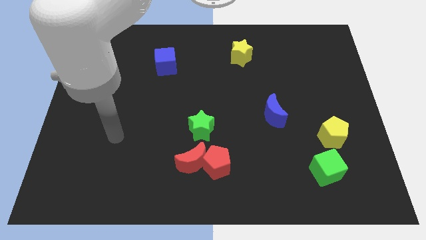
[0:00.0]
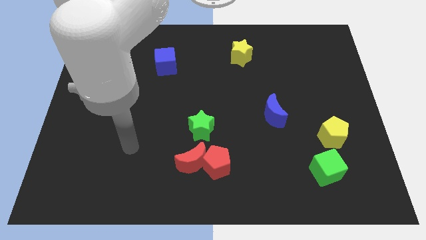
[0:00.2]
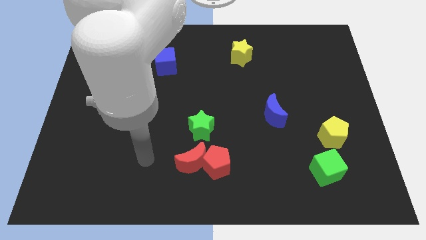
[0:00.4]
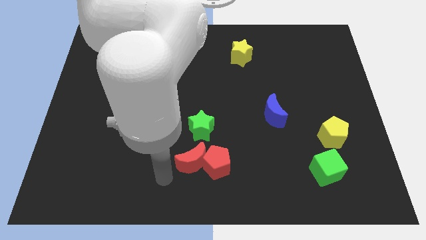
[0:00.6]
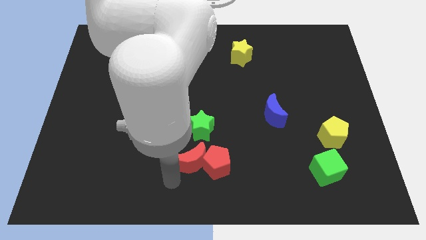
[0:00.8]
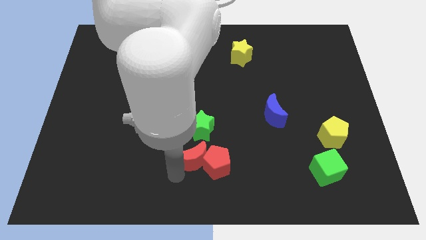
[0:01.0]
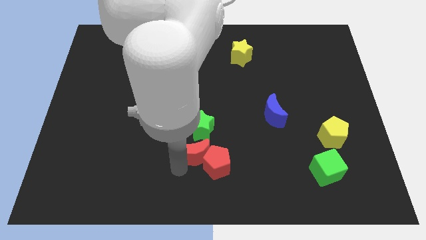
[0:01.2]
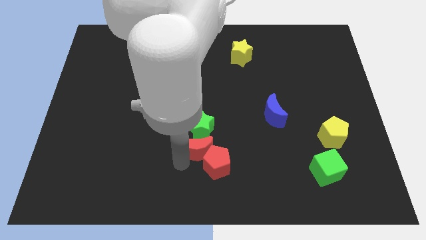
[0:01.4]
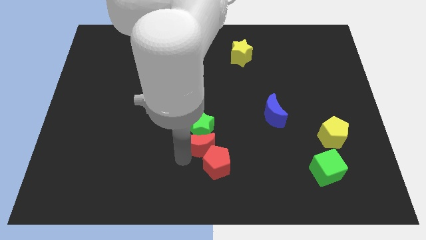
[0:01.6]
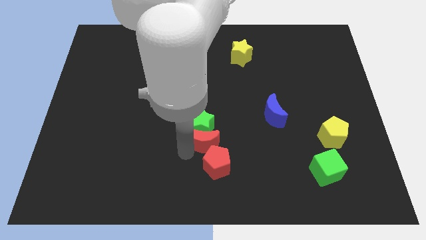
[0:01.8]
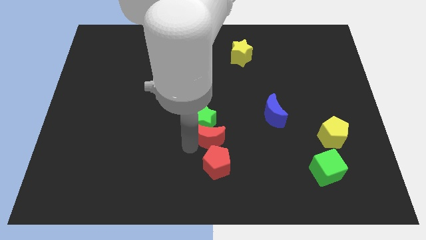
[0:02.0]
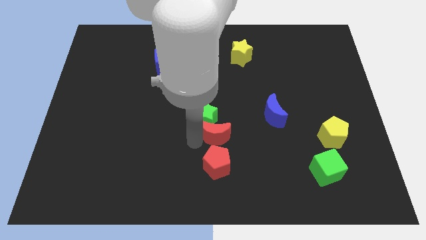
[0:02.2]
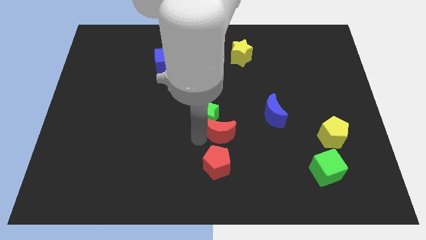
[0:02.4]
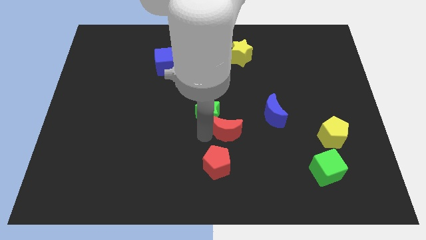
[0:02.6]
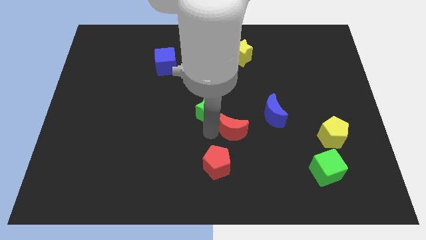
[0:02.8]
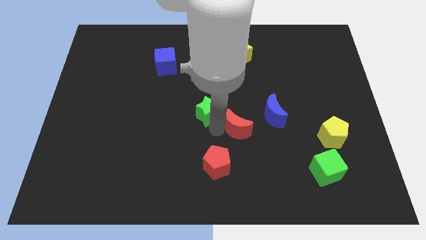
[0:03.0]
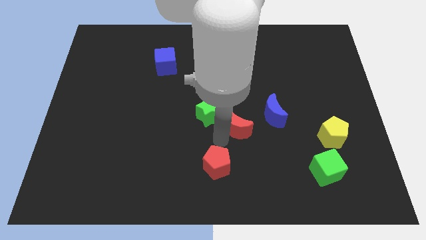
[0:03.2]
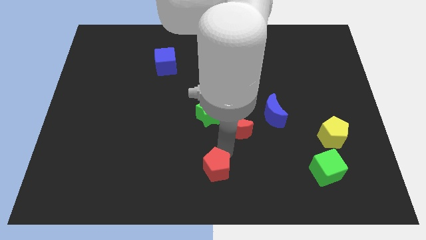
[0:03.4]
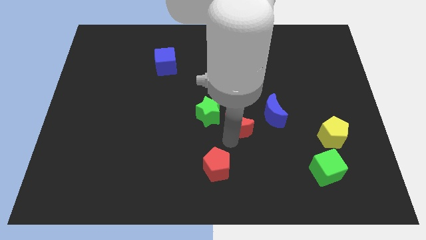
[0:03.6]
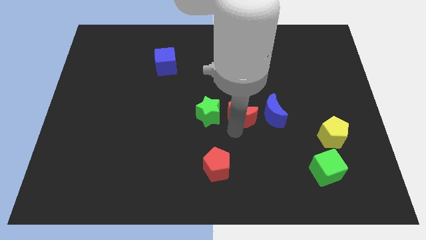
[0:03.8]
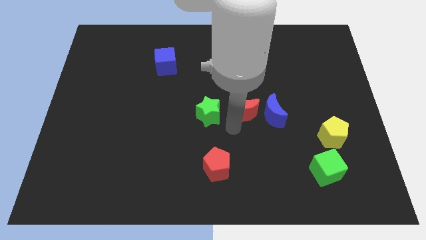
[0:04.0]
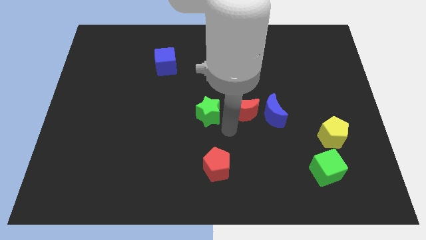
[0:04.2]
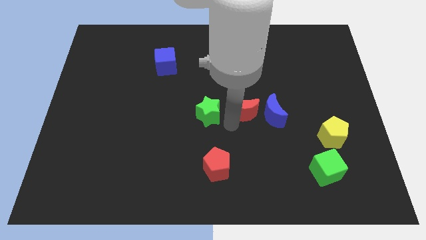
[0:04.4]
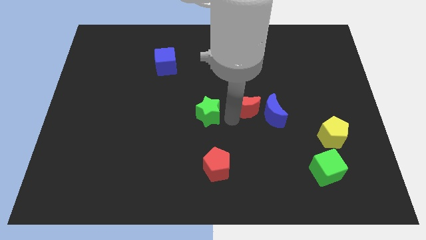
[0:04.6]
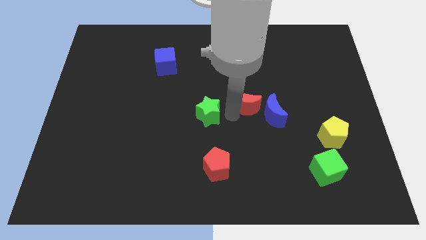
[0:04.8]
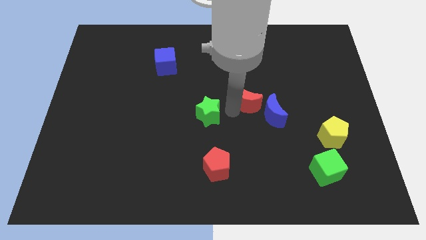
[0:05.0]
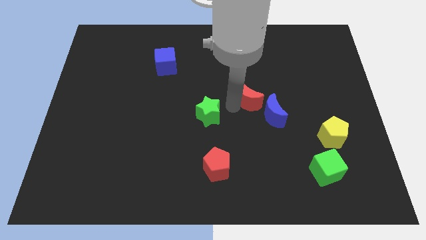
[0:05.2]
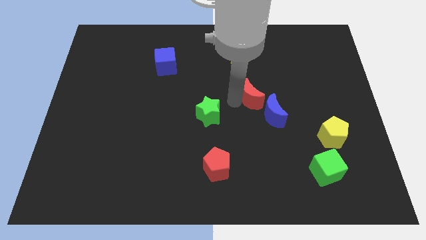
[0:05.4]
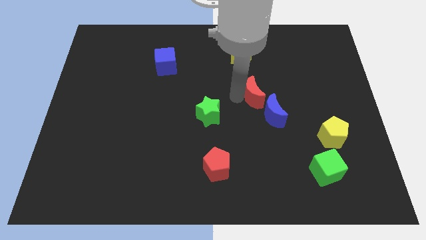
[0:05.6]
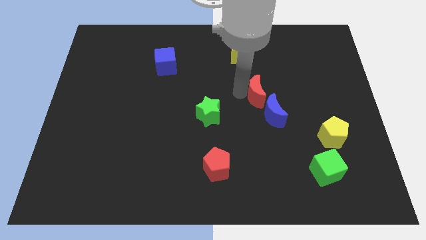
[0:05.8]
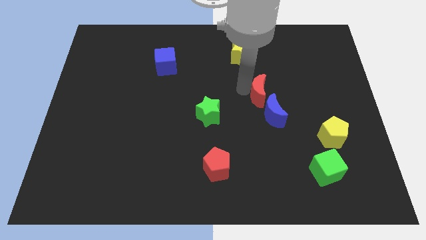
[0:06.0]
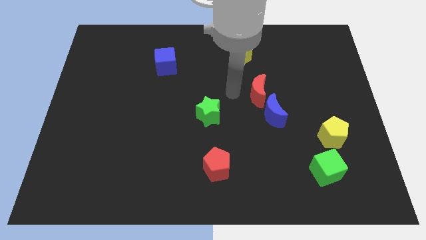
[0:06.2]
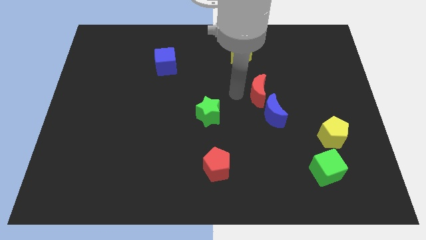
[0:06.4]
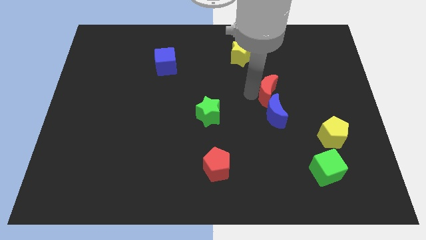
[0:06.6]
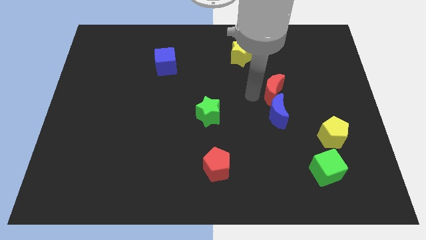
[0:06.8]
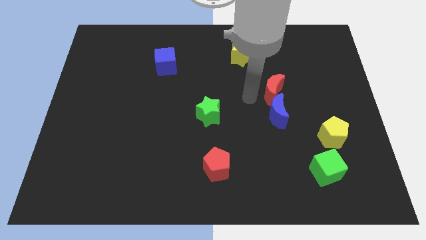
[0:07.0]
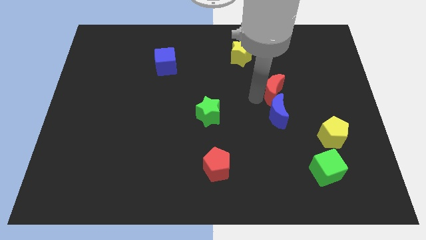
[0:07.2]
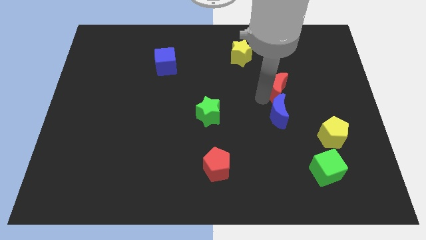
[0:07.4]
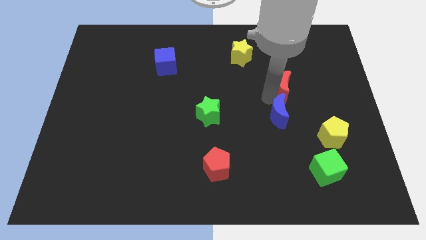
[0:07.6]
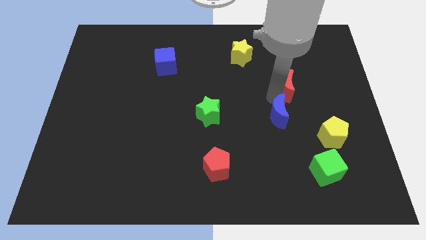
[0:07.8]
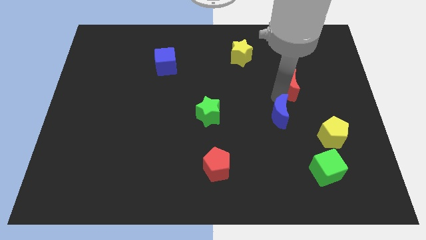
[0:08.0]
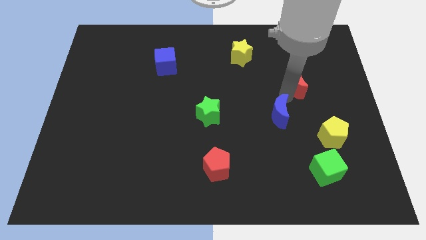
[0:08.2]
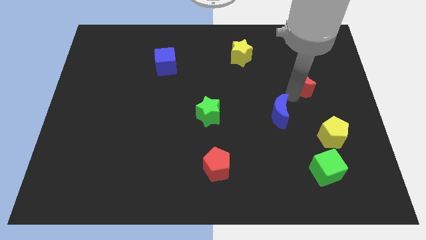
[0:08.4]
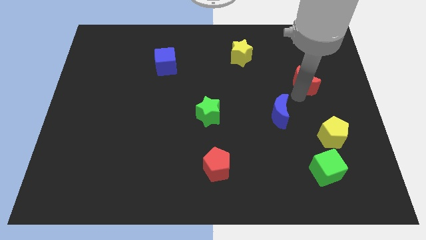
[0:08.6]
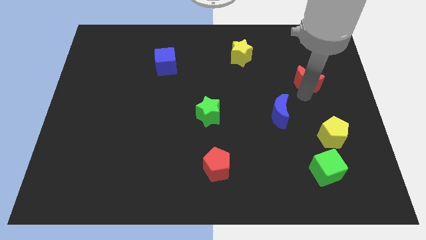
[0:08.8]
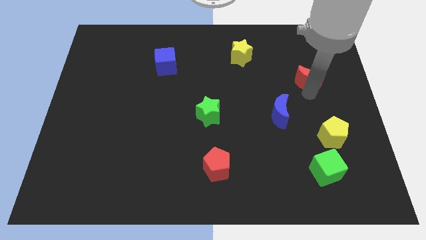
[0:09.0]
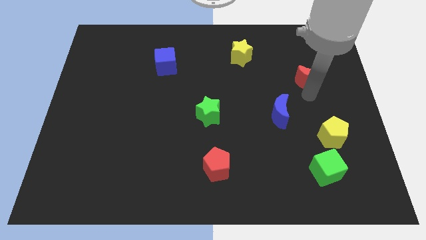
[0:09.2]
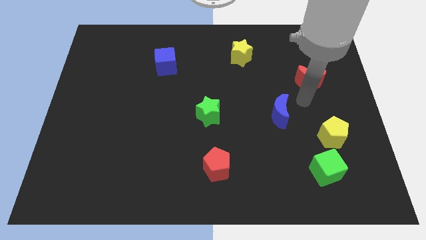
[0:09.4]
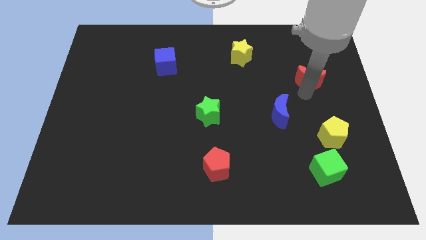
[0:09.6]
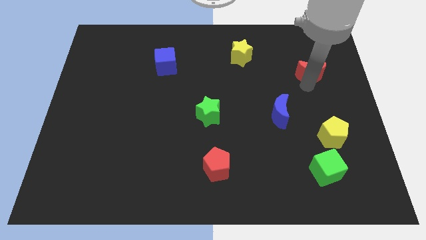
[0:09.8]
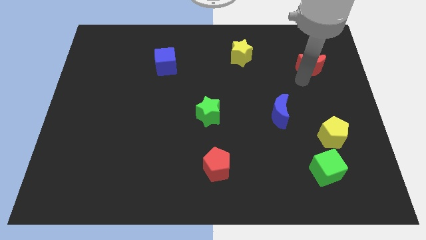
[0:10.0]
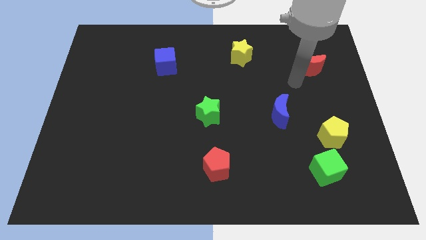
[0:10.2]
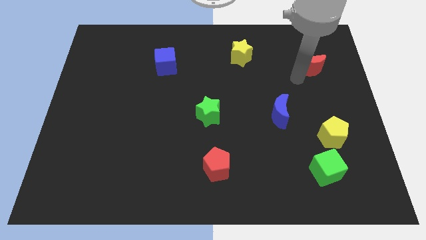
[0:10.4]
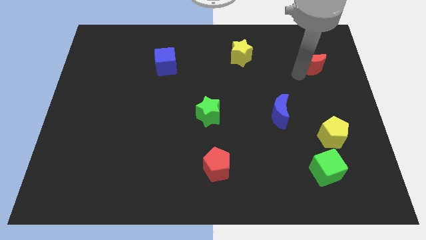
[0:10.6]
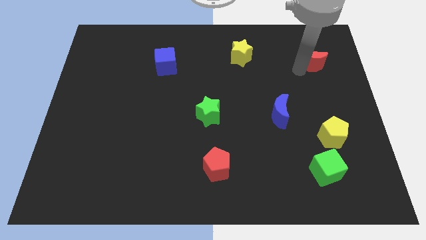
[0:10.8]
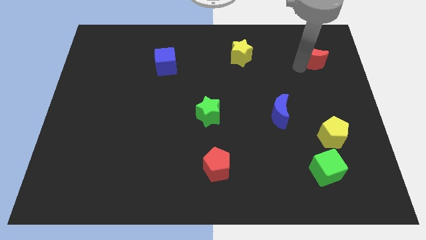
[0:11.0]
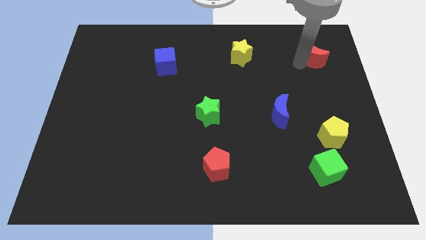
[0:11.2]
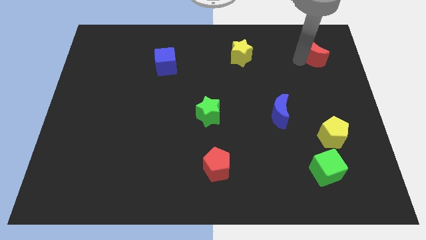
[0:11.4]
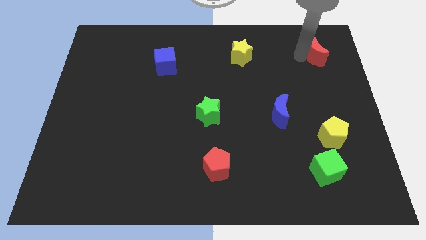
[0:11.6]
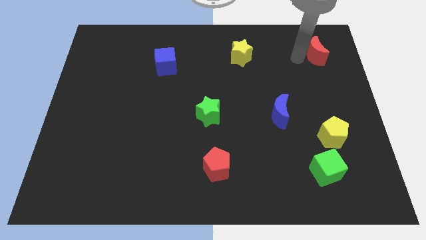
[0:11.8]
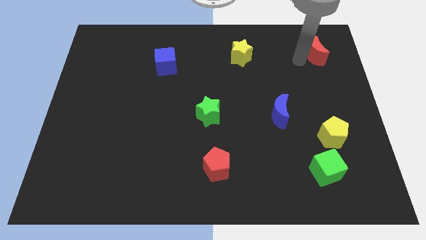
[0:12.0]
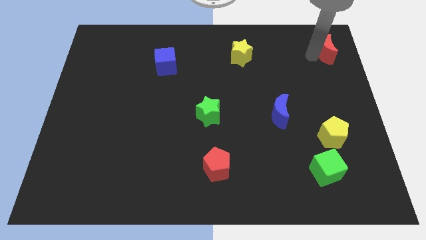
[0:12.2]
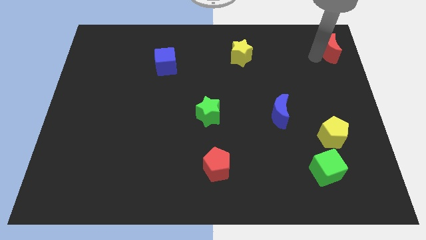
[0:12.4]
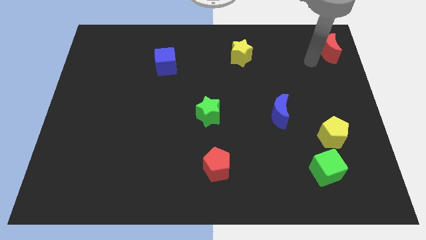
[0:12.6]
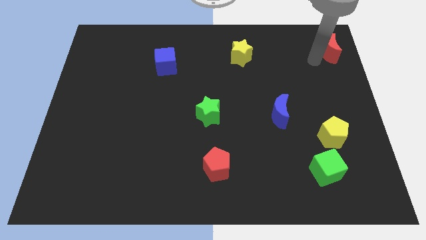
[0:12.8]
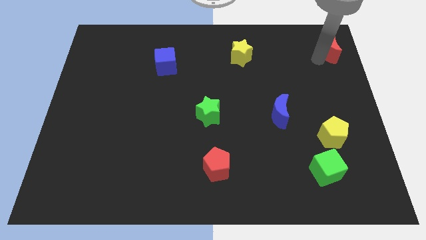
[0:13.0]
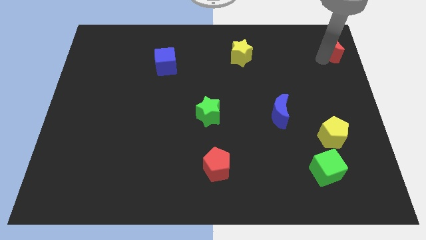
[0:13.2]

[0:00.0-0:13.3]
move the red moon to the top right

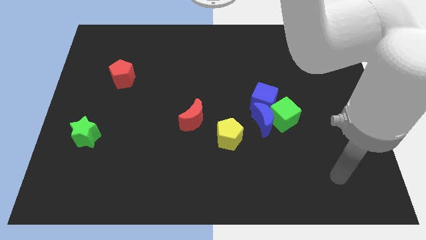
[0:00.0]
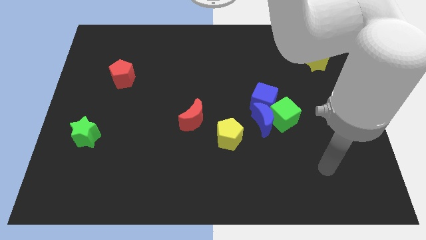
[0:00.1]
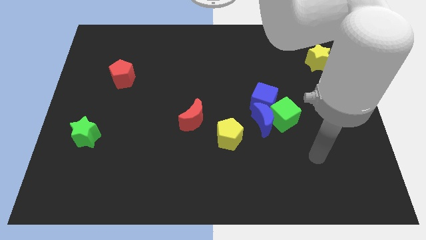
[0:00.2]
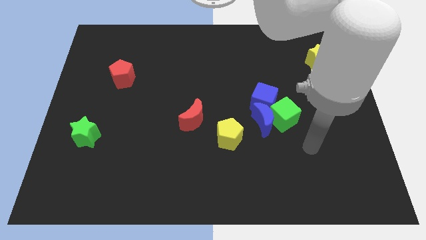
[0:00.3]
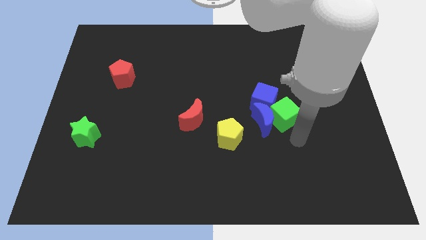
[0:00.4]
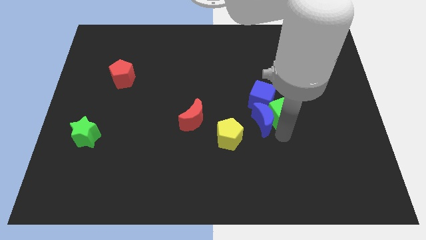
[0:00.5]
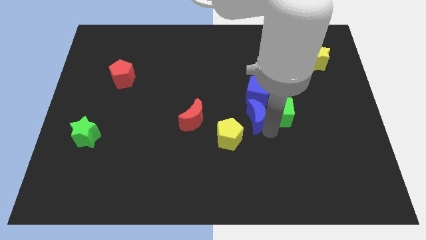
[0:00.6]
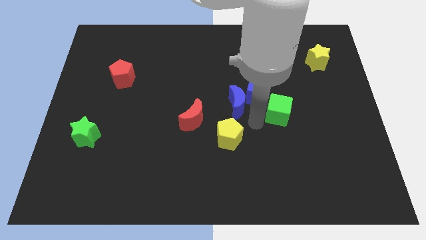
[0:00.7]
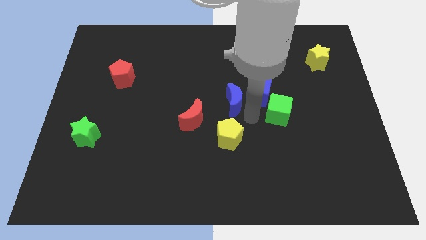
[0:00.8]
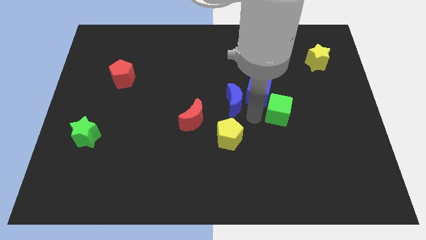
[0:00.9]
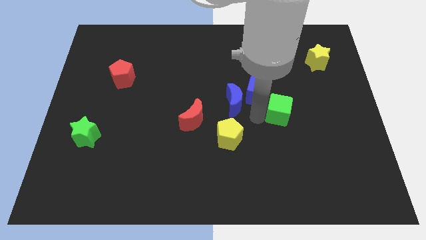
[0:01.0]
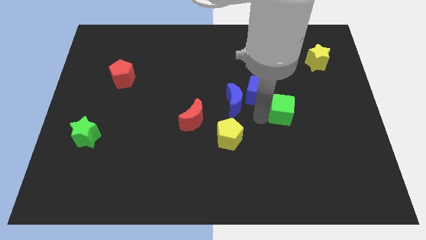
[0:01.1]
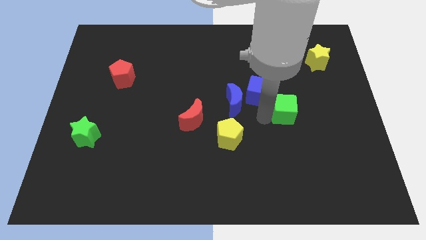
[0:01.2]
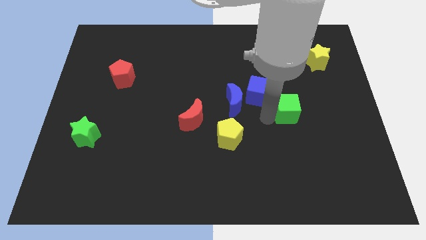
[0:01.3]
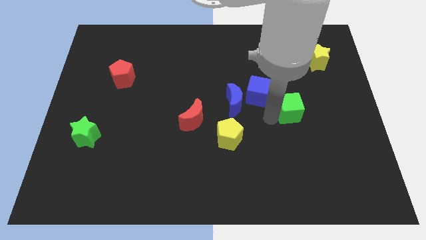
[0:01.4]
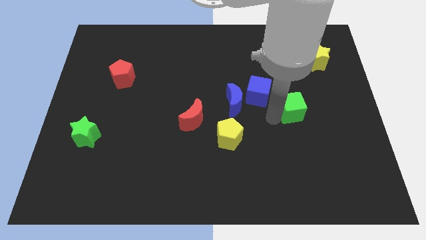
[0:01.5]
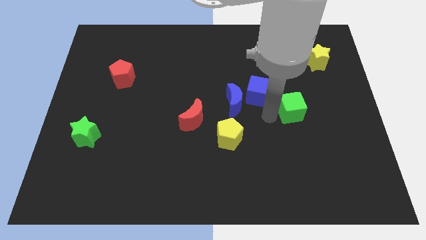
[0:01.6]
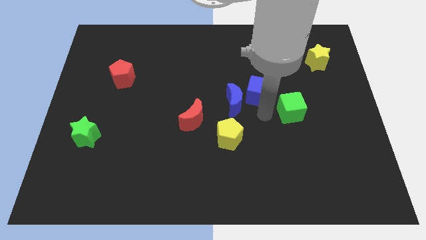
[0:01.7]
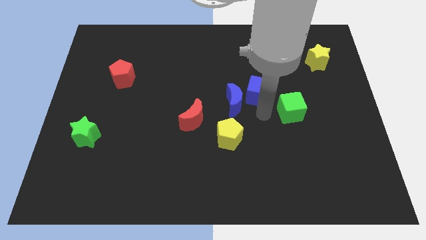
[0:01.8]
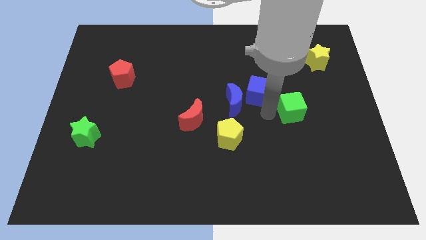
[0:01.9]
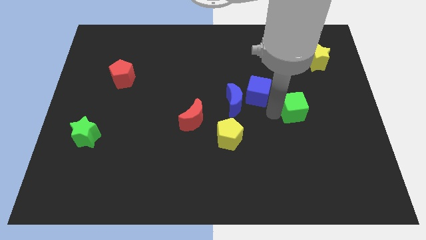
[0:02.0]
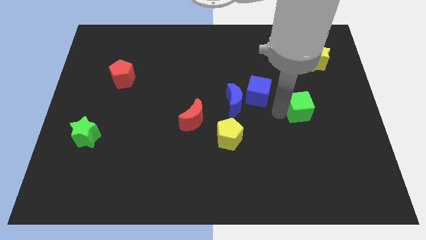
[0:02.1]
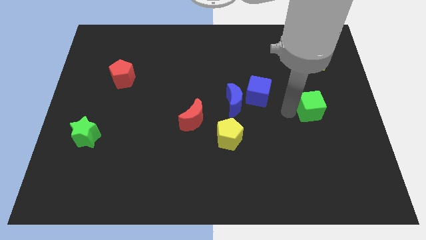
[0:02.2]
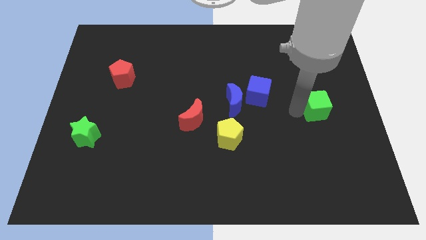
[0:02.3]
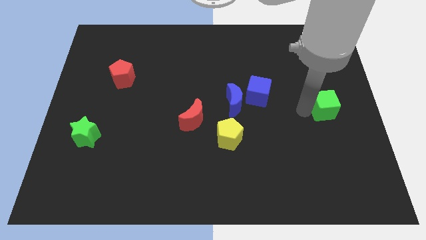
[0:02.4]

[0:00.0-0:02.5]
move the green cube to the right side of the board
